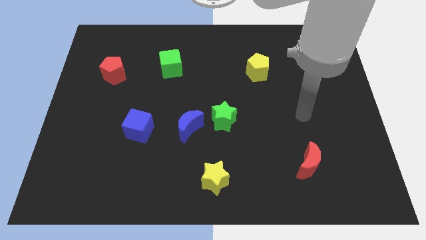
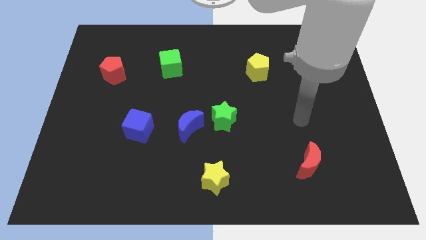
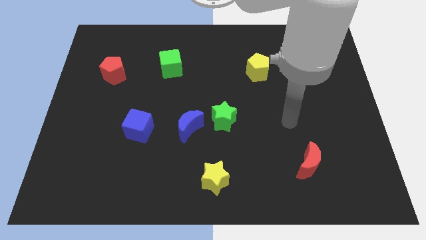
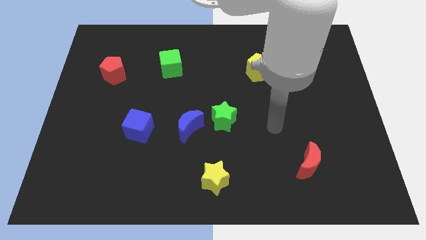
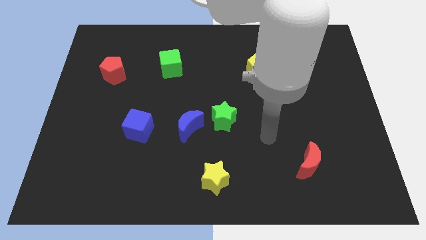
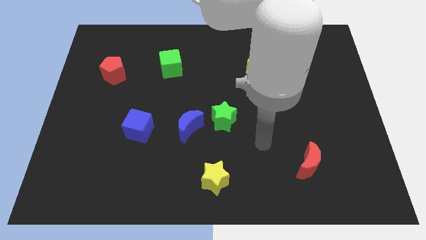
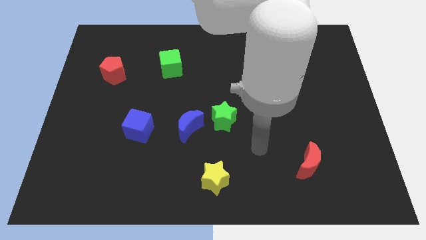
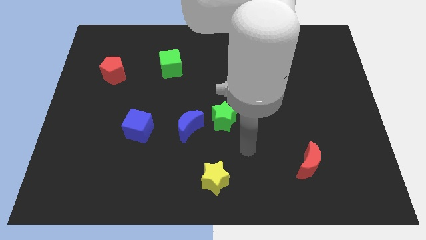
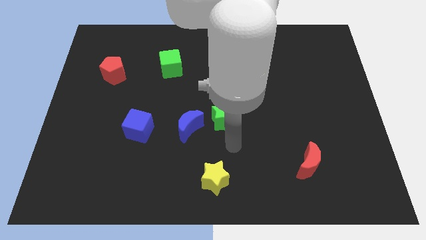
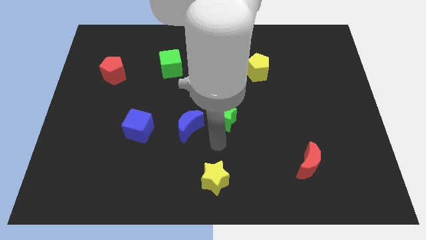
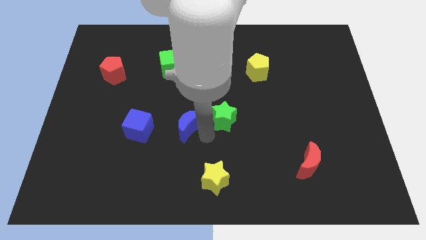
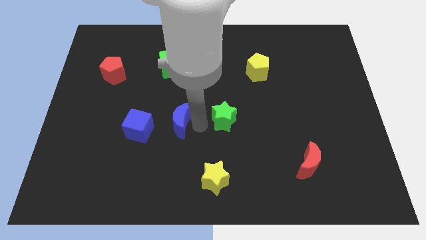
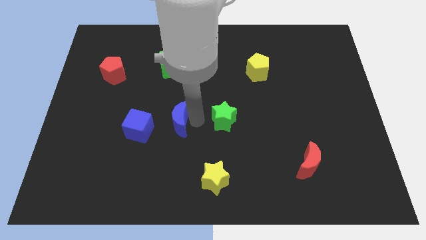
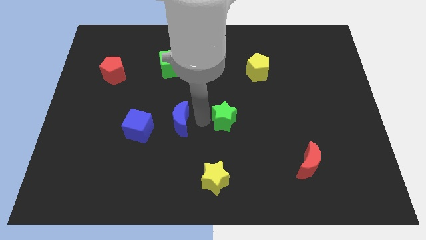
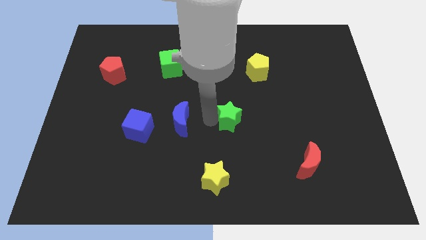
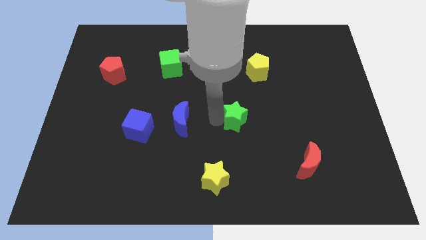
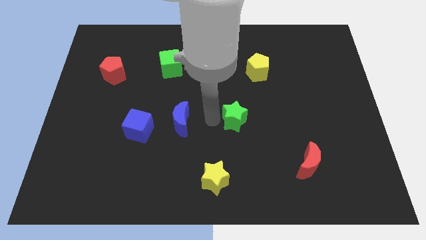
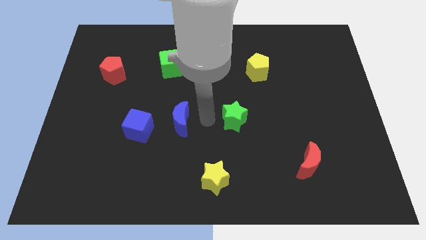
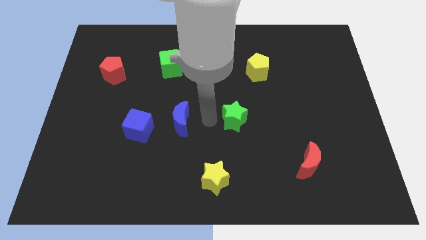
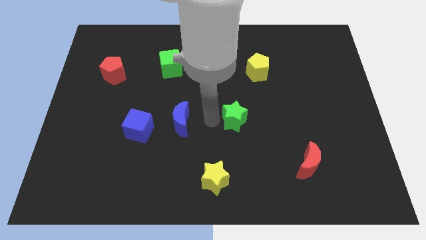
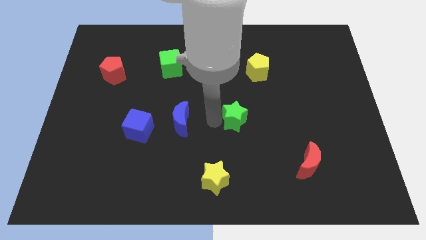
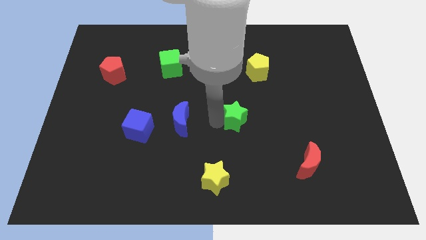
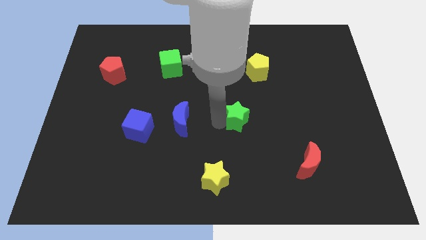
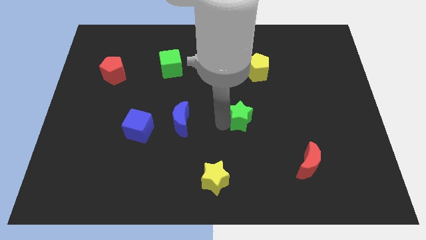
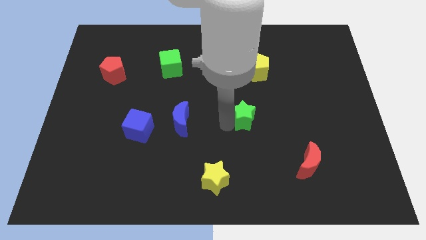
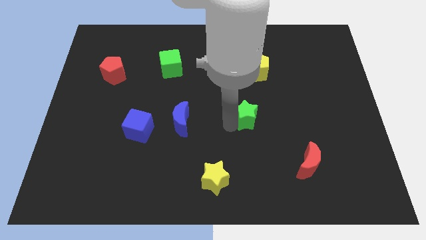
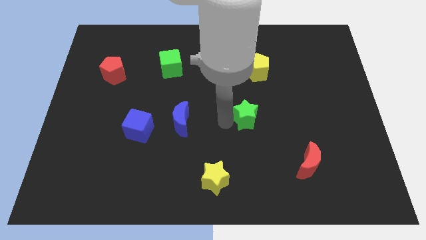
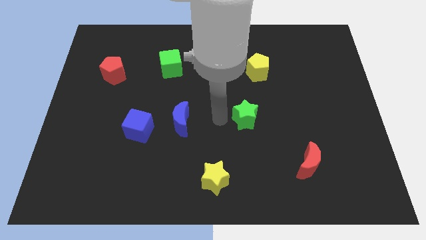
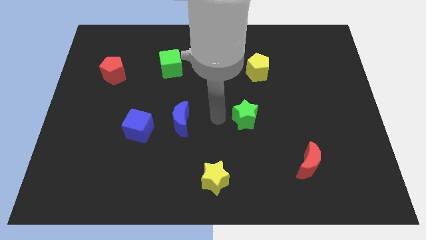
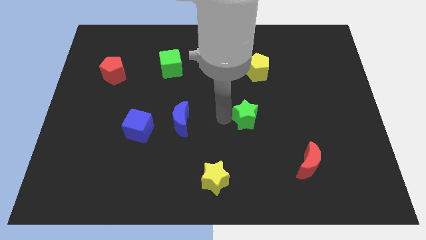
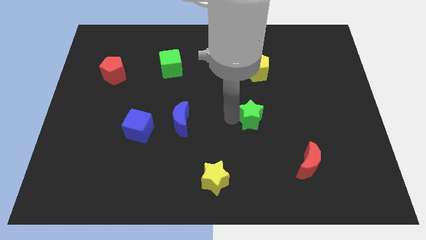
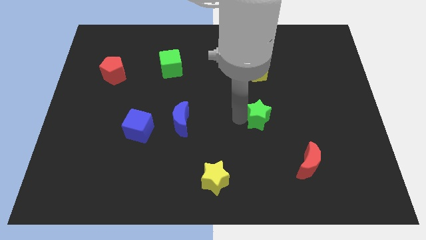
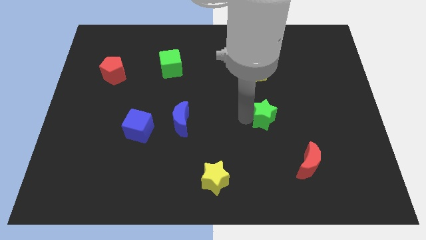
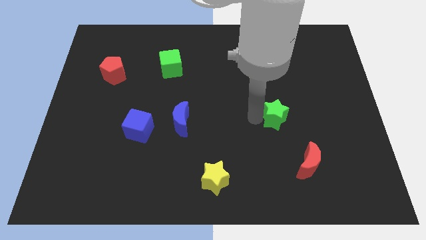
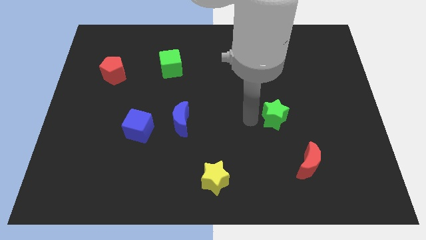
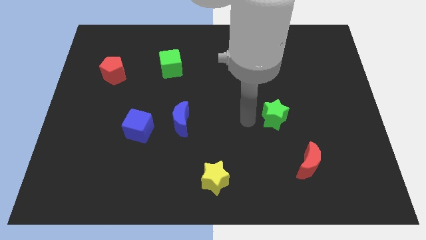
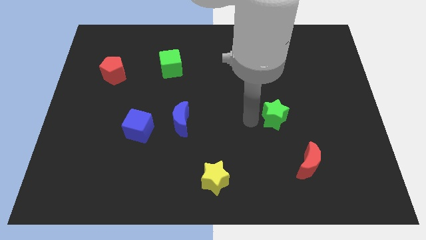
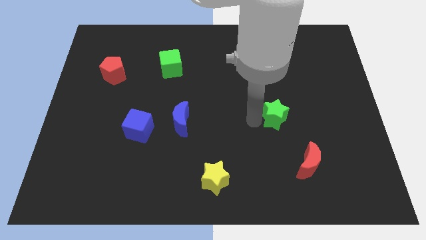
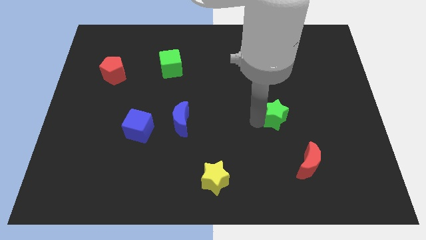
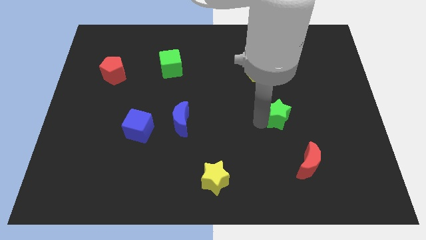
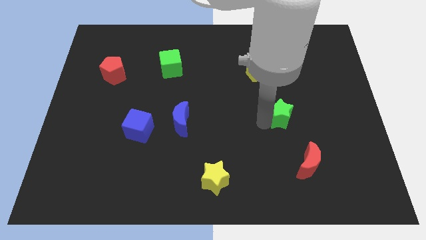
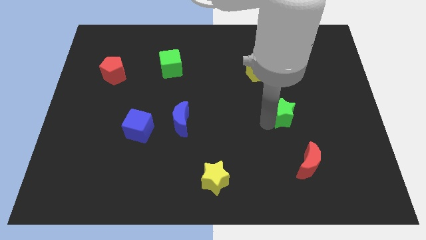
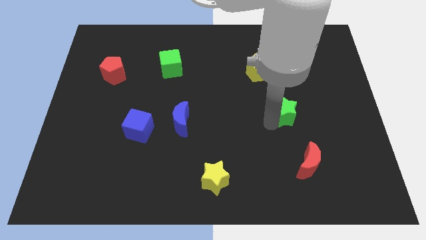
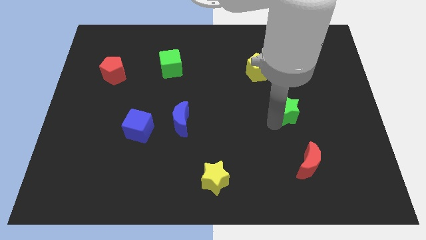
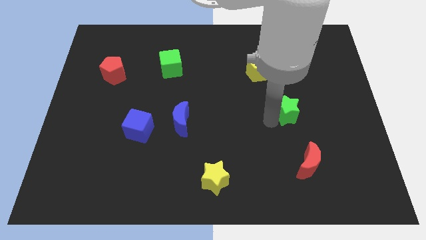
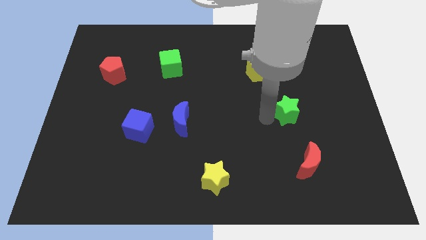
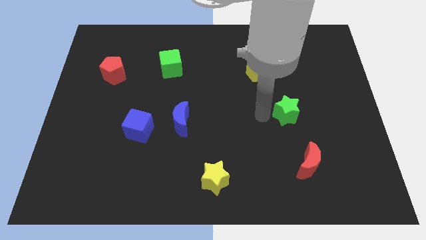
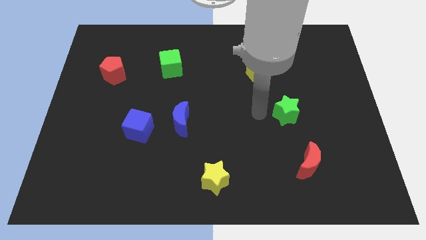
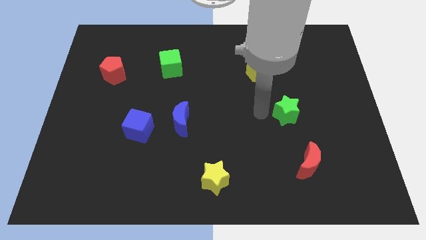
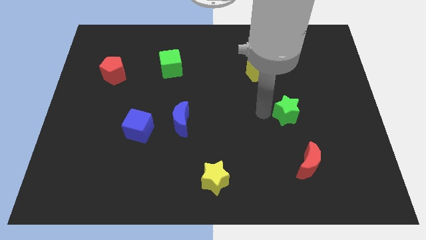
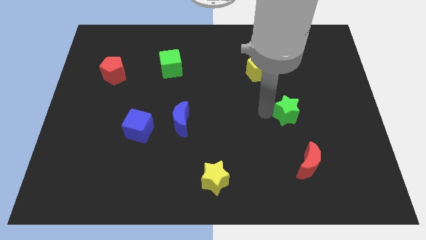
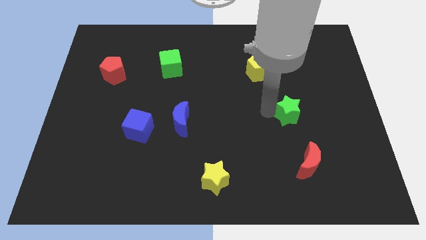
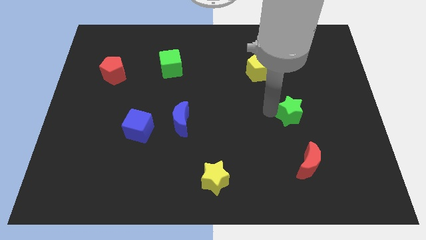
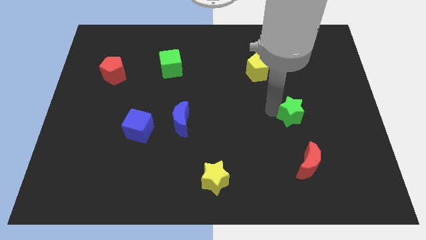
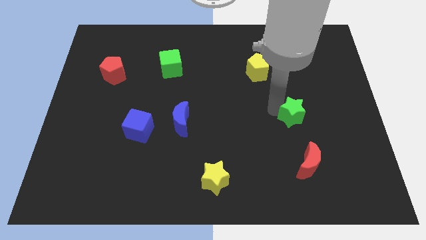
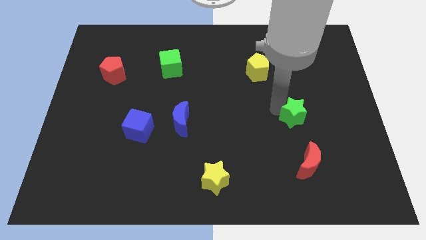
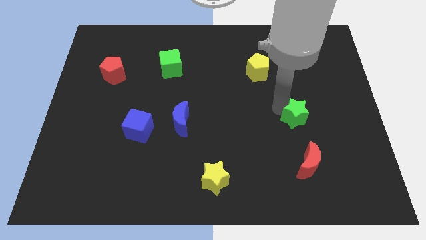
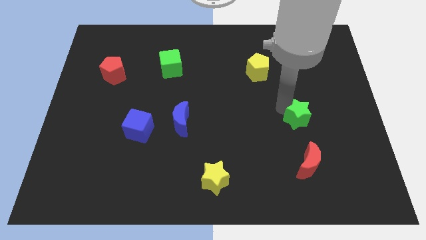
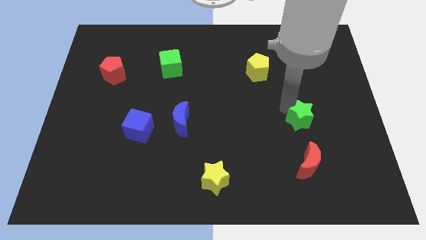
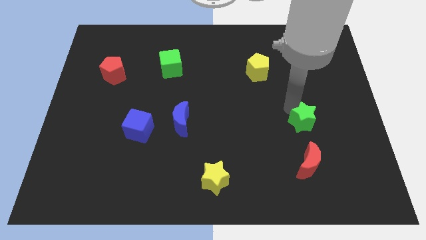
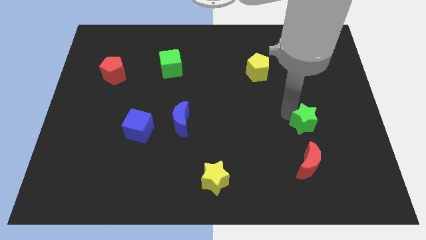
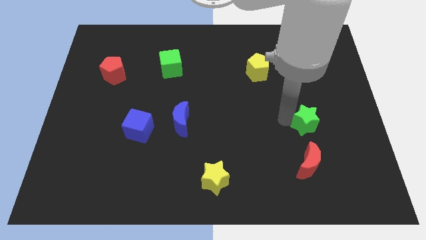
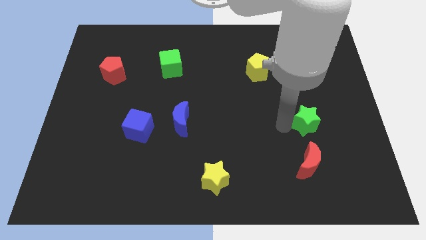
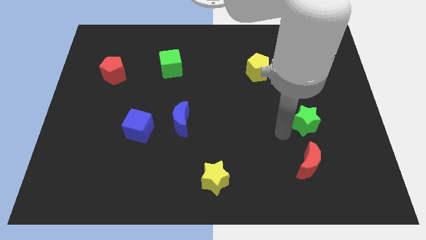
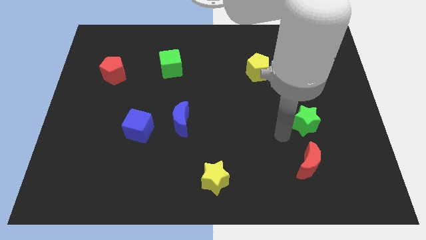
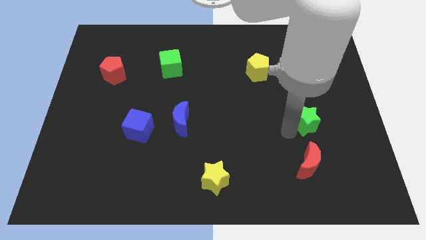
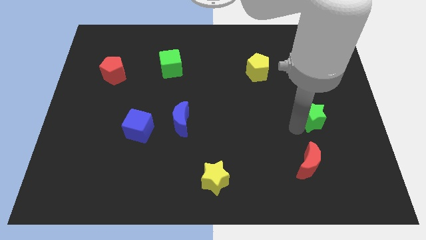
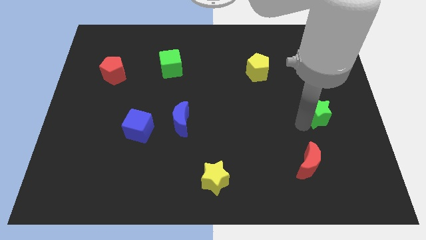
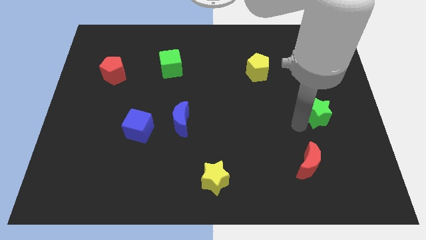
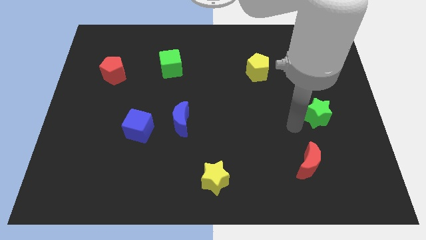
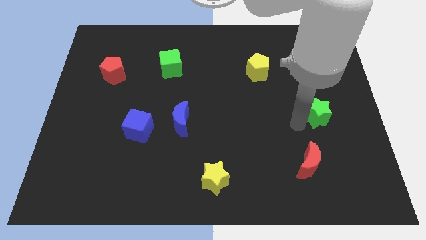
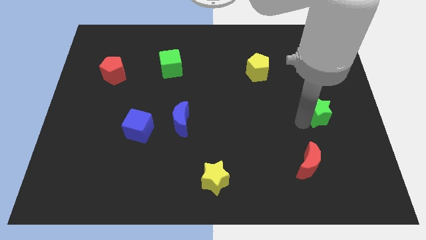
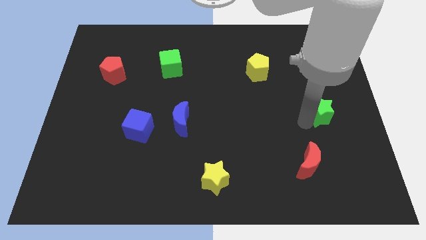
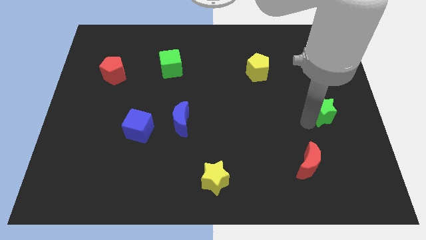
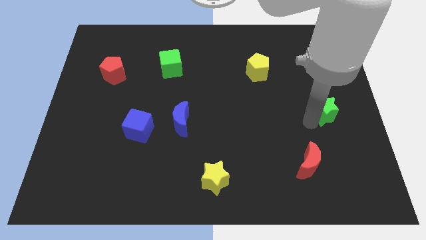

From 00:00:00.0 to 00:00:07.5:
slide the green star to the center right

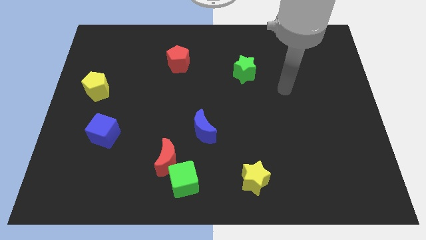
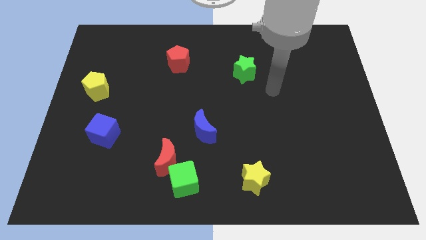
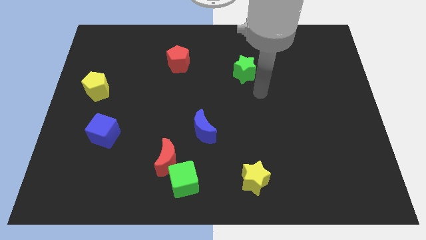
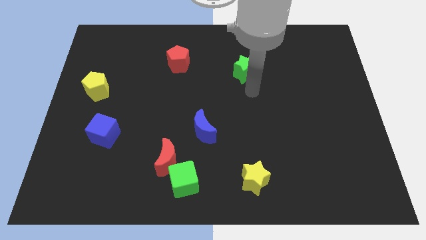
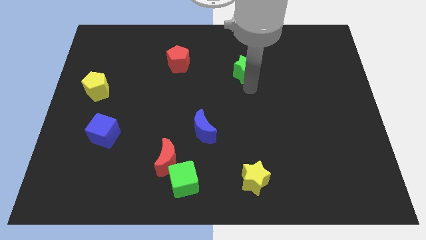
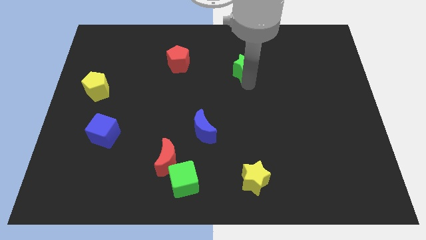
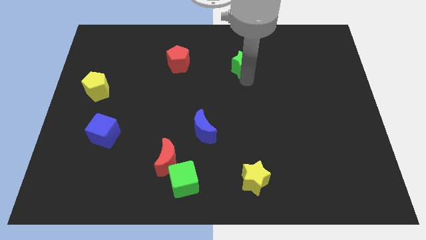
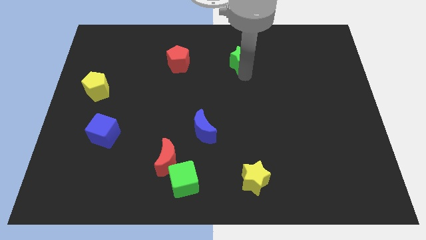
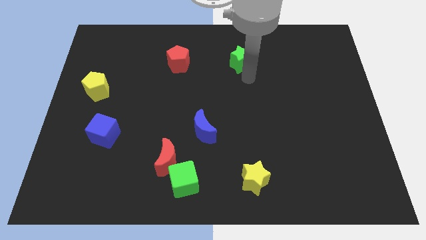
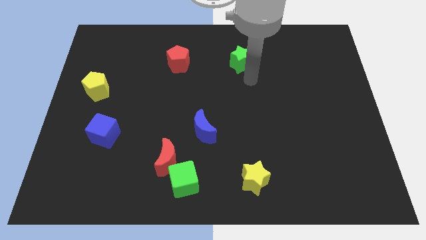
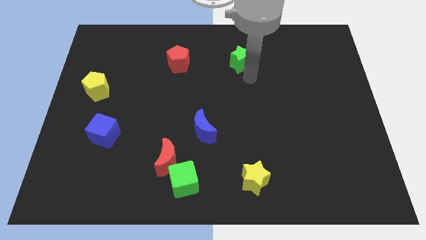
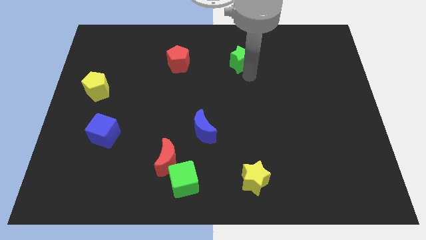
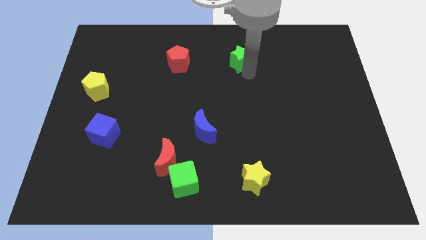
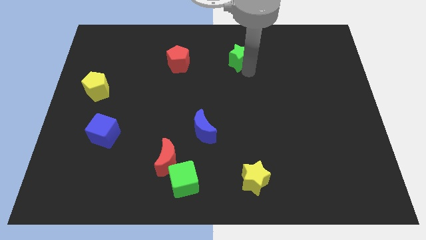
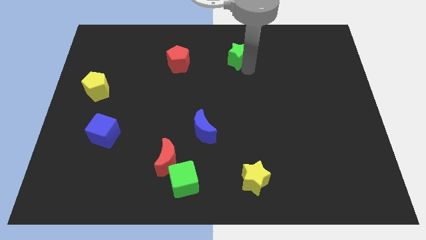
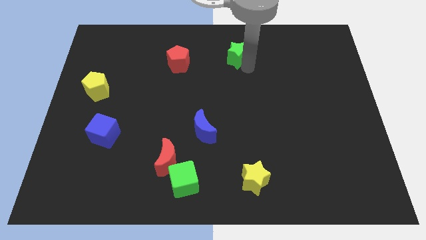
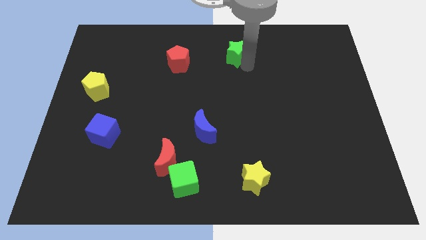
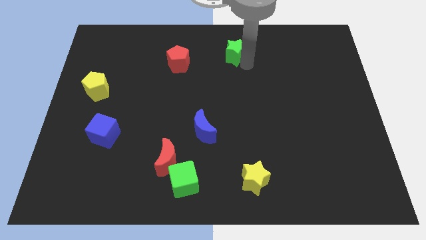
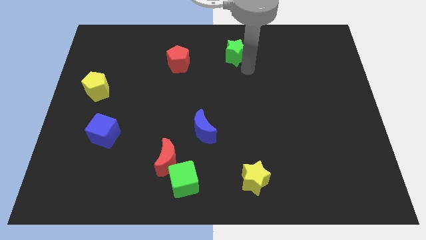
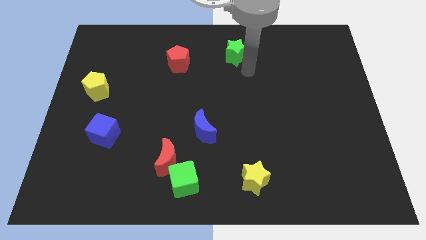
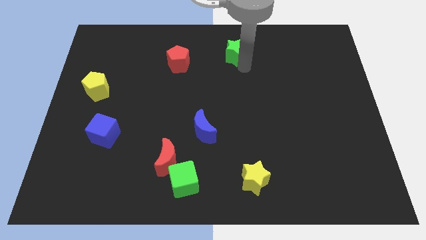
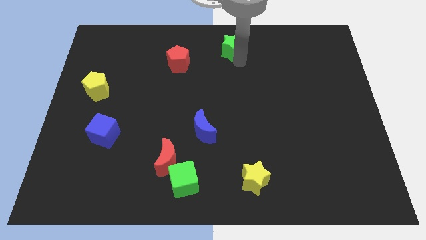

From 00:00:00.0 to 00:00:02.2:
put the green star to the top
